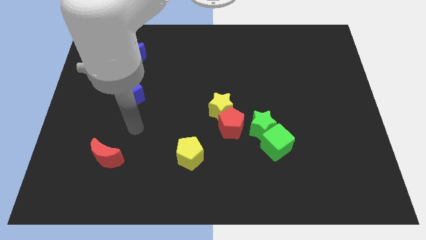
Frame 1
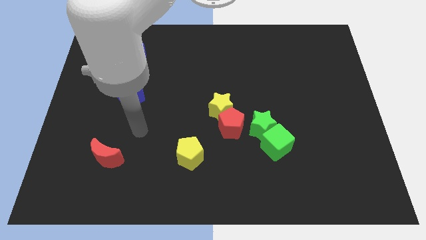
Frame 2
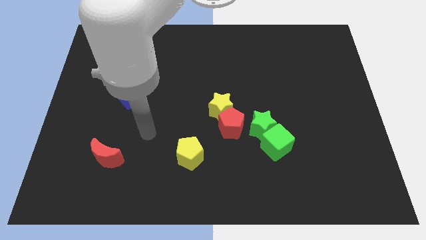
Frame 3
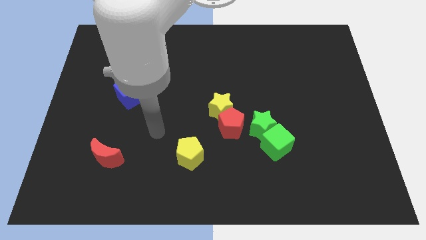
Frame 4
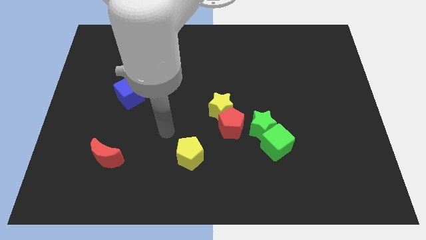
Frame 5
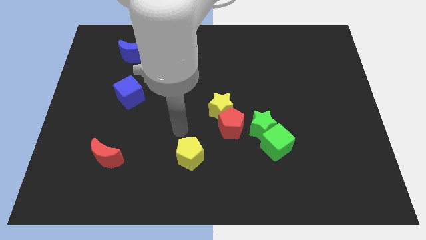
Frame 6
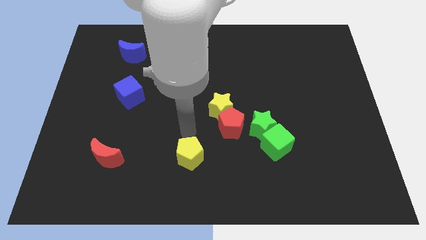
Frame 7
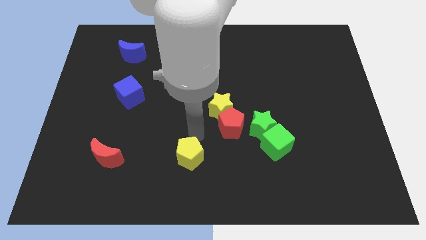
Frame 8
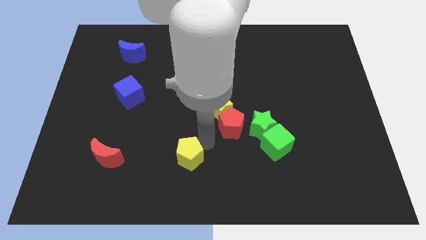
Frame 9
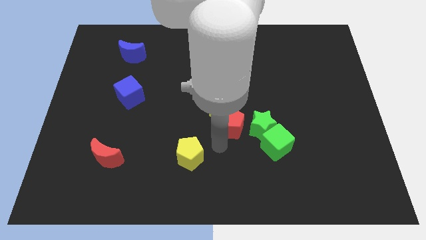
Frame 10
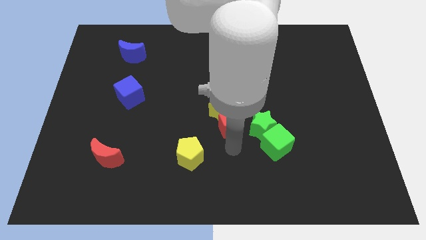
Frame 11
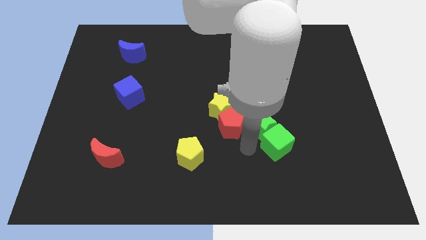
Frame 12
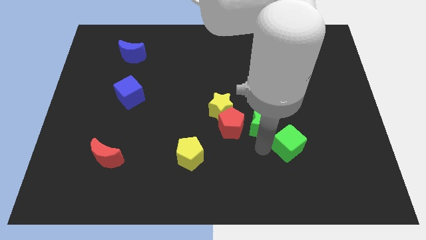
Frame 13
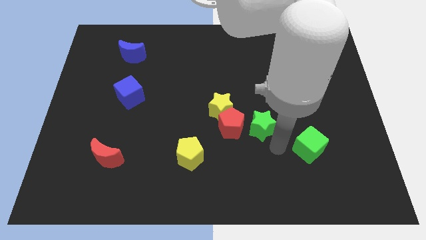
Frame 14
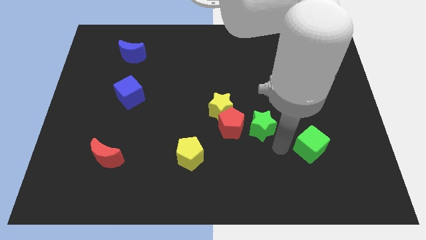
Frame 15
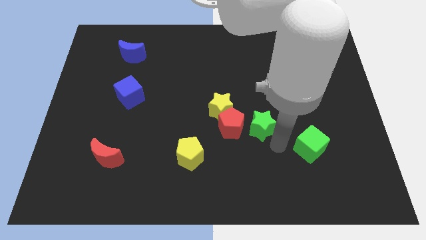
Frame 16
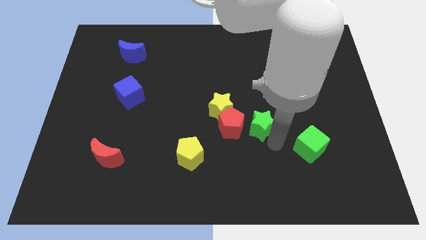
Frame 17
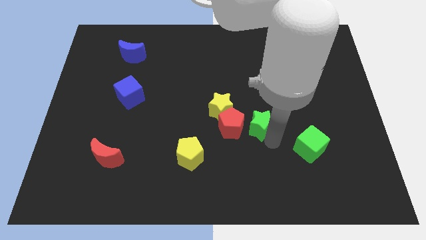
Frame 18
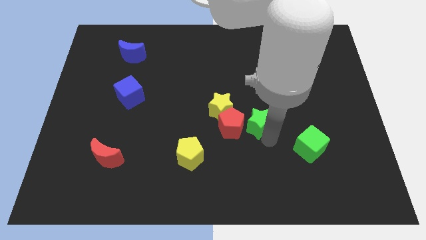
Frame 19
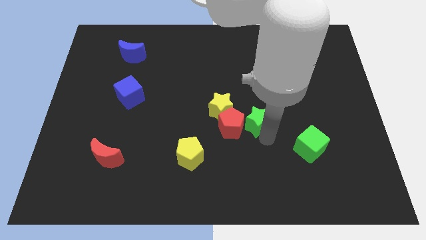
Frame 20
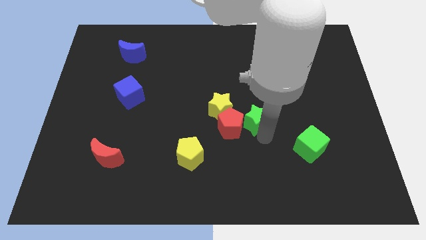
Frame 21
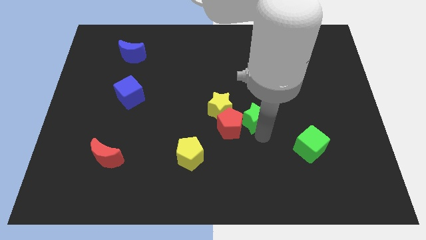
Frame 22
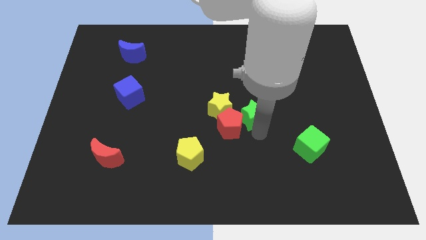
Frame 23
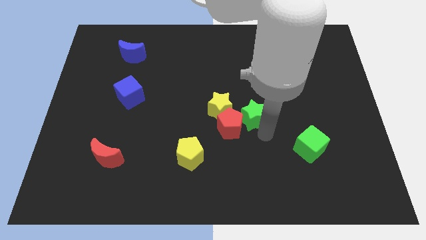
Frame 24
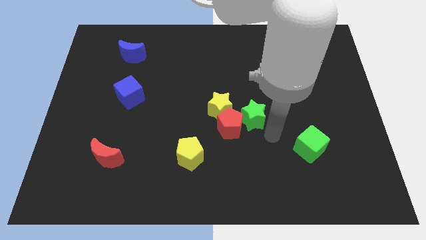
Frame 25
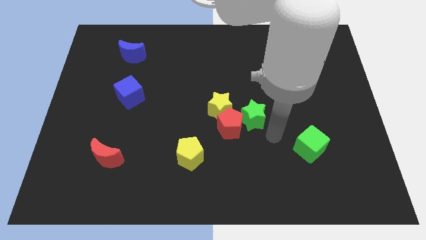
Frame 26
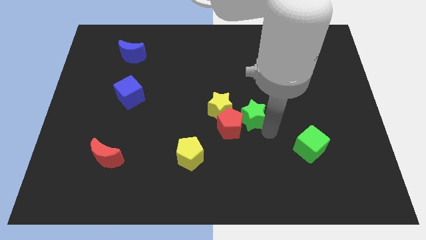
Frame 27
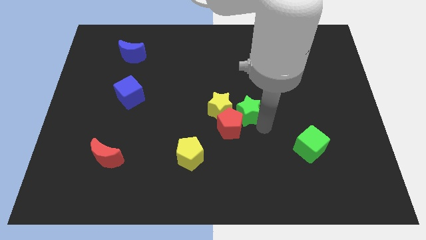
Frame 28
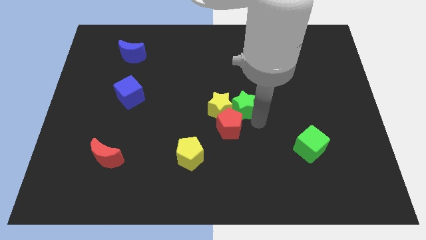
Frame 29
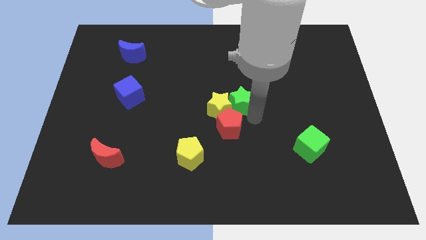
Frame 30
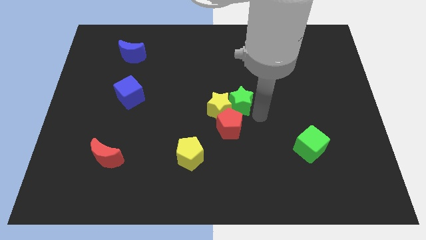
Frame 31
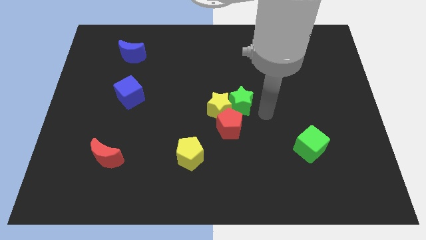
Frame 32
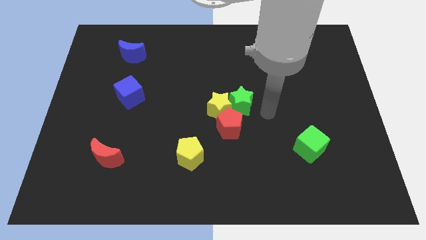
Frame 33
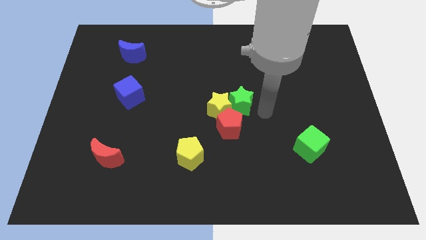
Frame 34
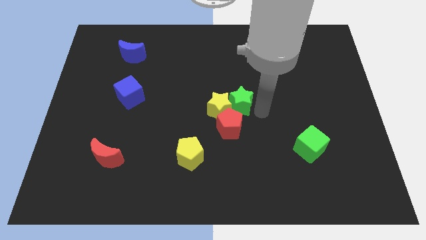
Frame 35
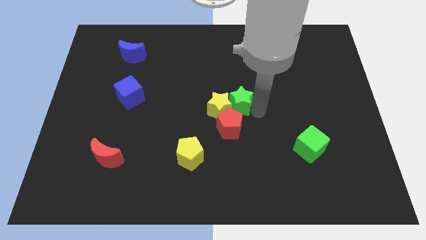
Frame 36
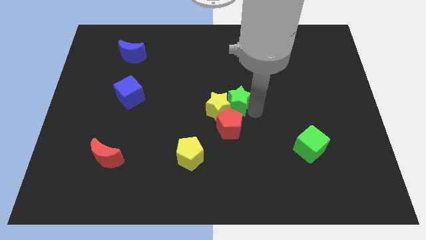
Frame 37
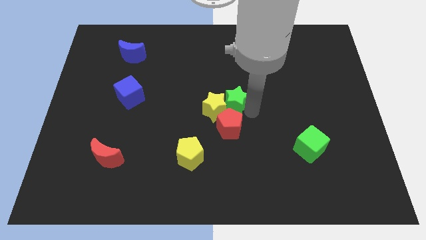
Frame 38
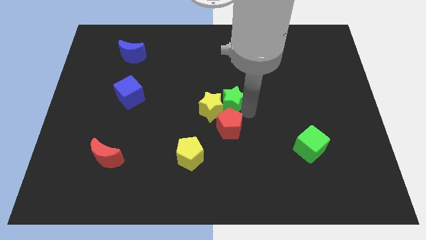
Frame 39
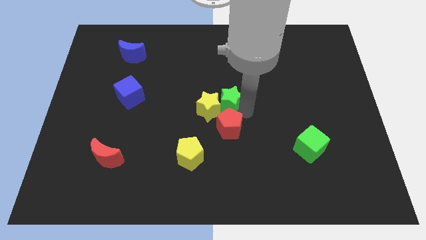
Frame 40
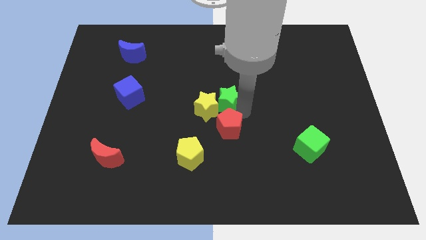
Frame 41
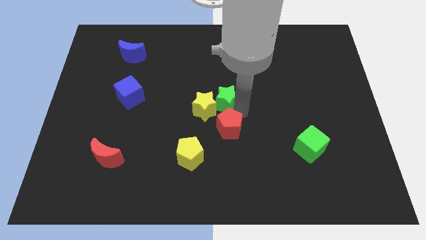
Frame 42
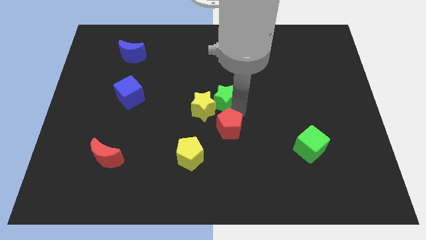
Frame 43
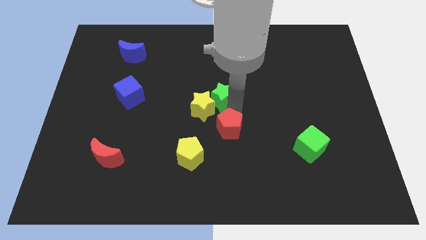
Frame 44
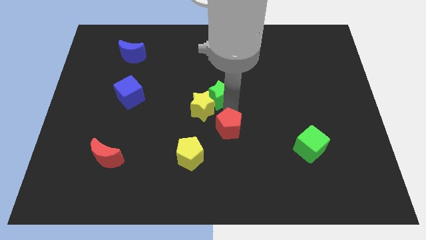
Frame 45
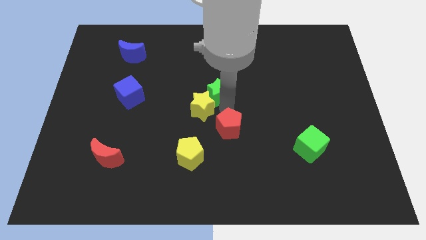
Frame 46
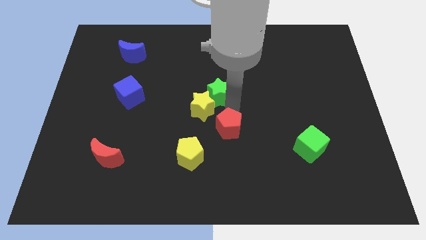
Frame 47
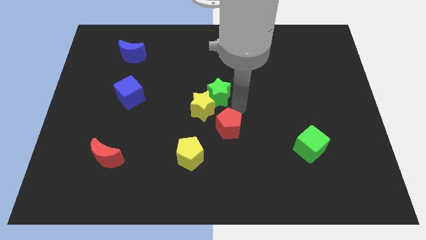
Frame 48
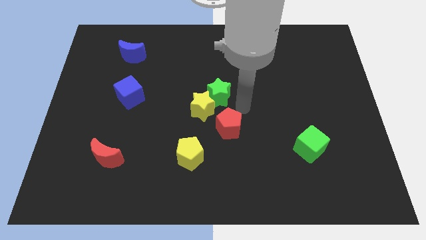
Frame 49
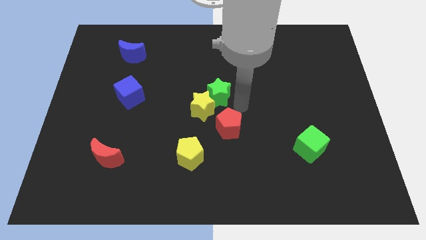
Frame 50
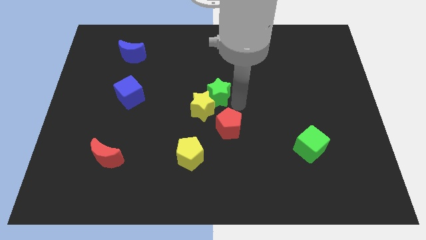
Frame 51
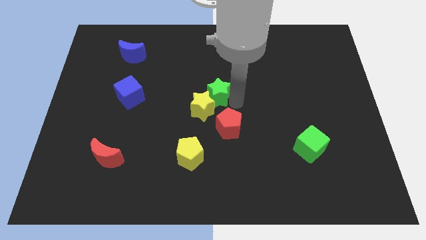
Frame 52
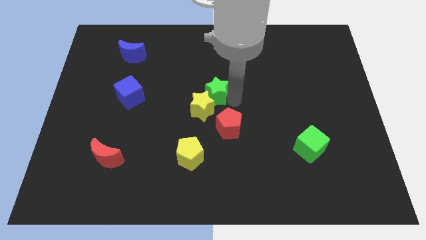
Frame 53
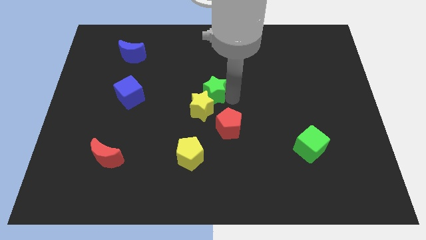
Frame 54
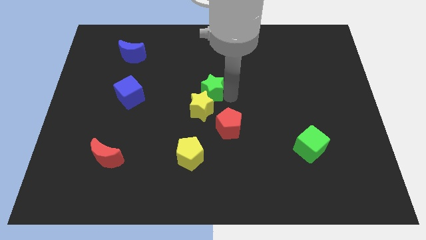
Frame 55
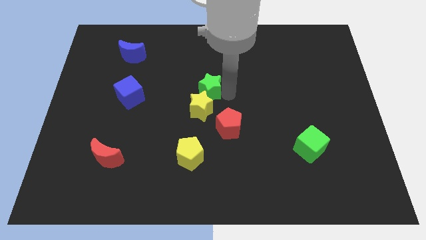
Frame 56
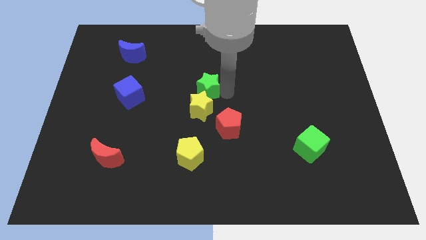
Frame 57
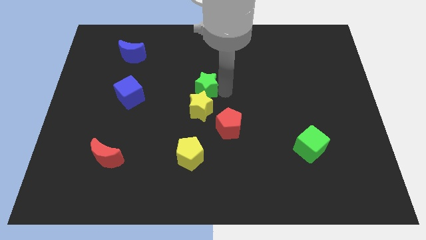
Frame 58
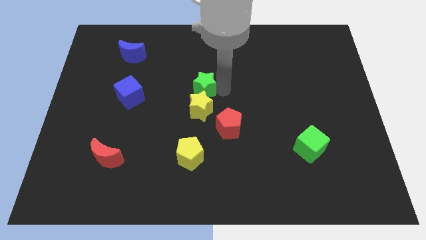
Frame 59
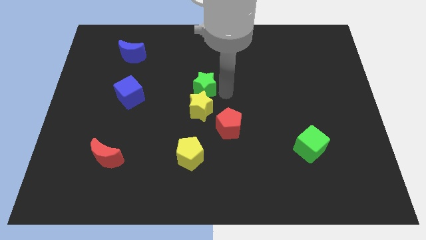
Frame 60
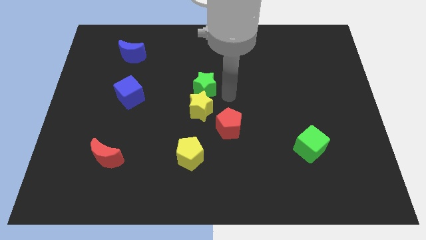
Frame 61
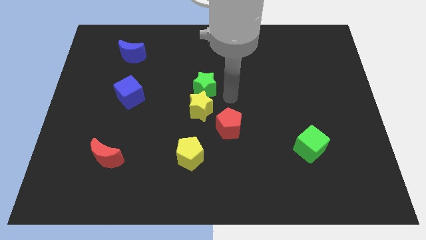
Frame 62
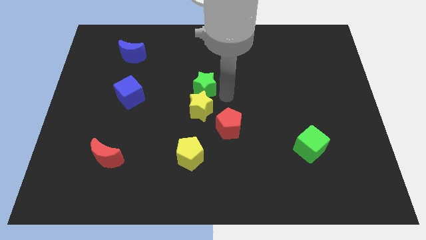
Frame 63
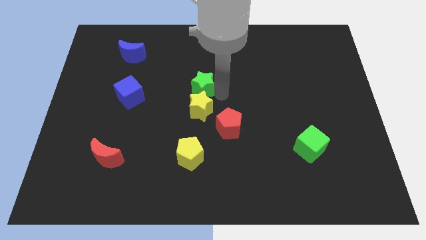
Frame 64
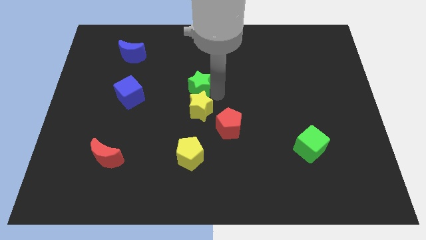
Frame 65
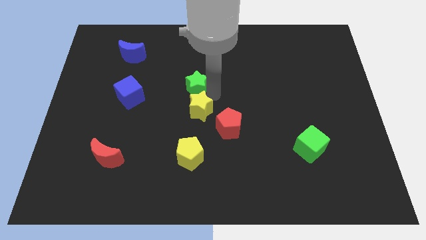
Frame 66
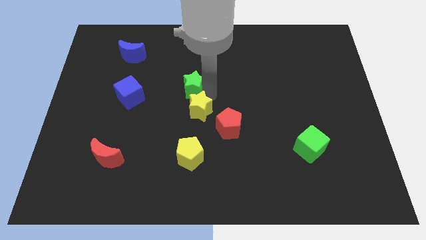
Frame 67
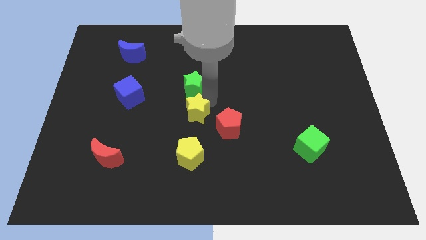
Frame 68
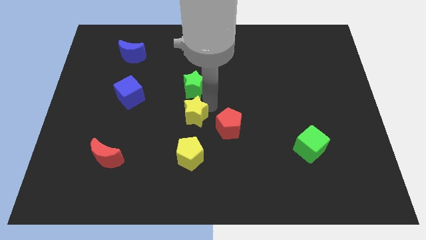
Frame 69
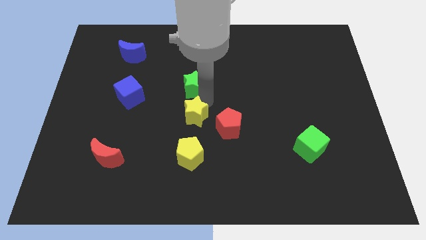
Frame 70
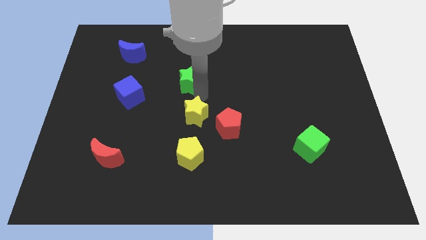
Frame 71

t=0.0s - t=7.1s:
move the green star upwards and left

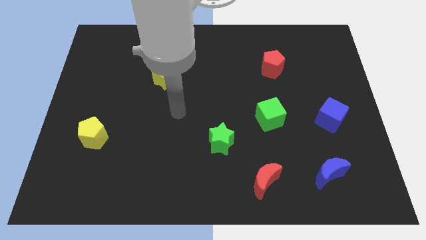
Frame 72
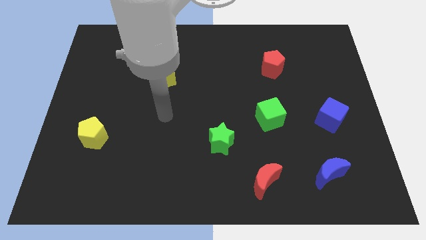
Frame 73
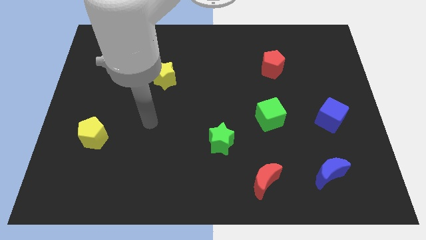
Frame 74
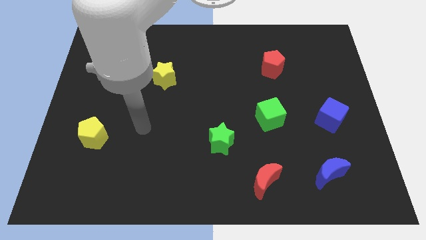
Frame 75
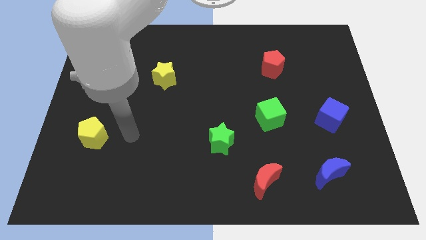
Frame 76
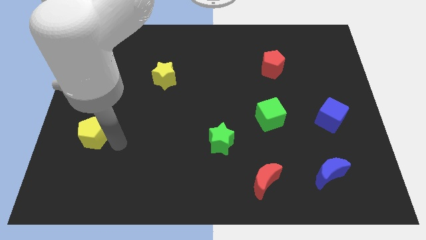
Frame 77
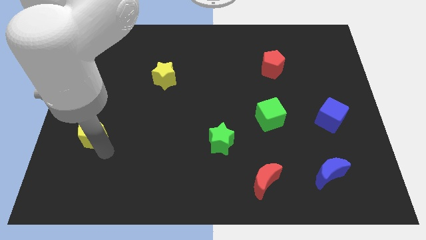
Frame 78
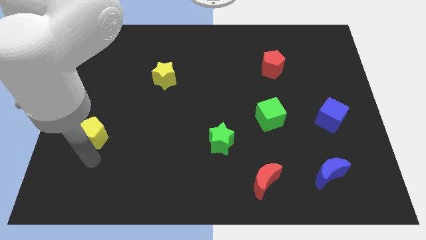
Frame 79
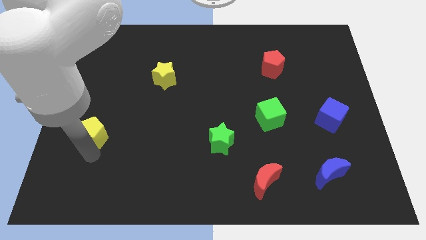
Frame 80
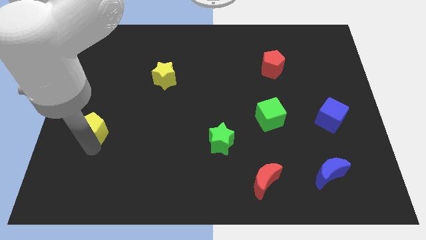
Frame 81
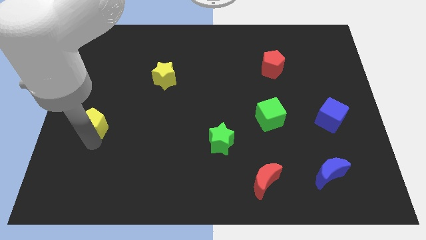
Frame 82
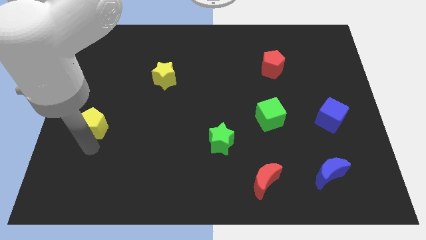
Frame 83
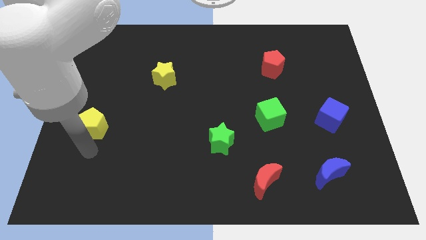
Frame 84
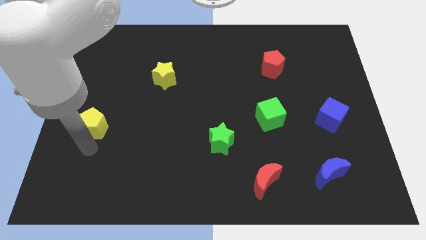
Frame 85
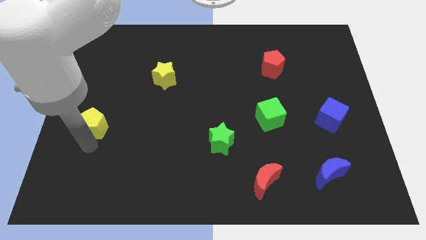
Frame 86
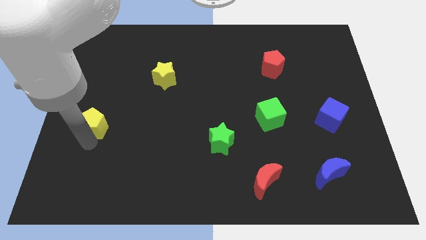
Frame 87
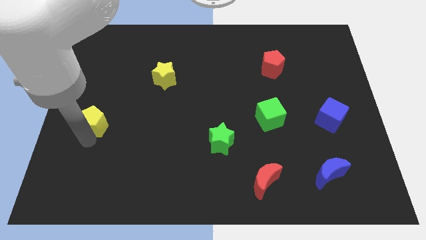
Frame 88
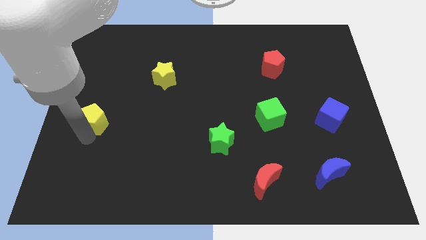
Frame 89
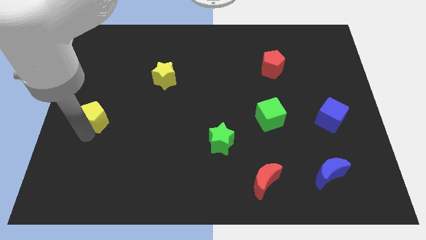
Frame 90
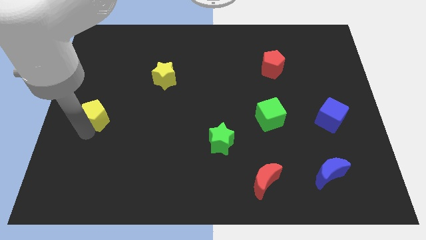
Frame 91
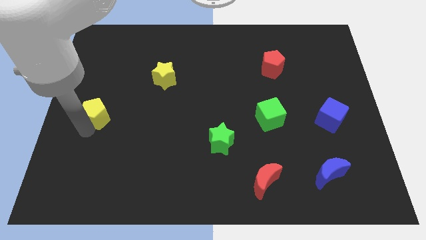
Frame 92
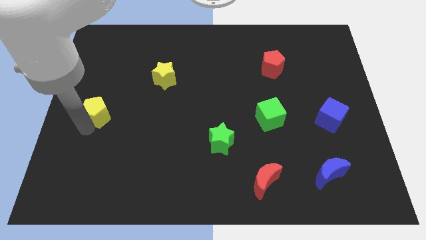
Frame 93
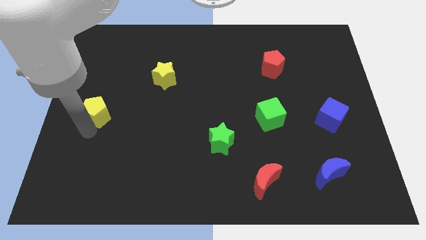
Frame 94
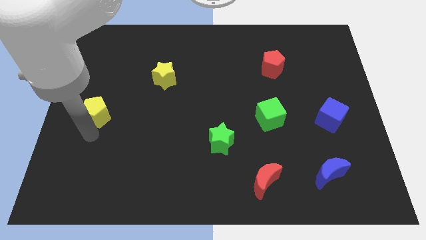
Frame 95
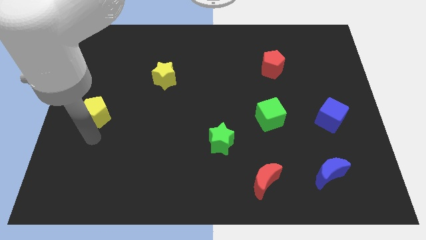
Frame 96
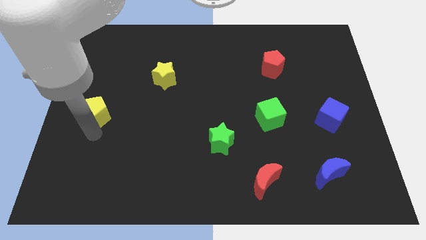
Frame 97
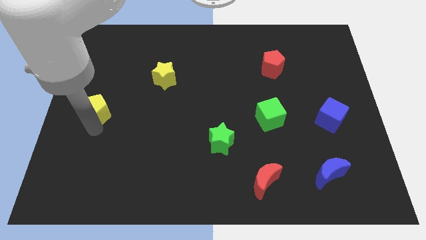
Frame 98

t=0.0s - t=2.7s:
slightly move the yellow pentagon up
